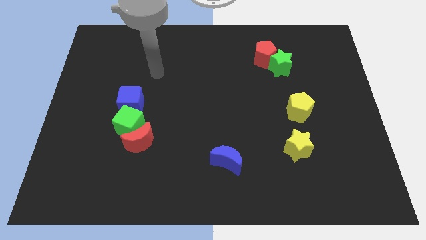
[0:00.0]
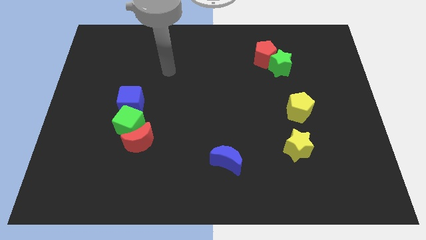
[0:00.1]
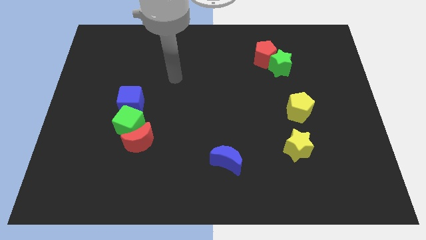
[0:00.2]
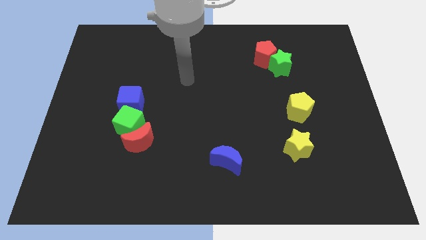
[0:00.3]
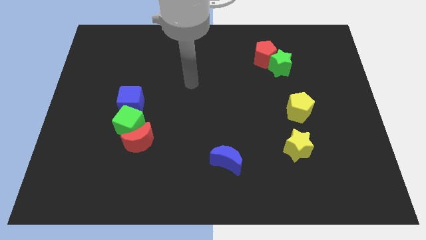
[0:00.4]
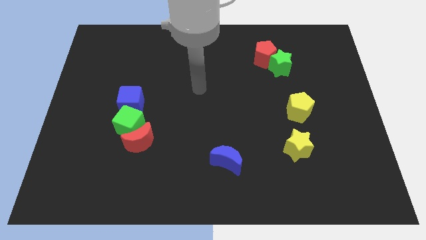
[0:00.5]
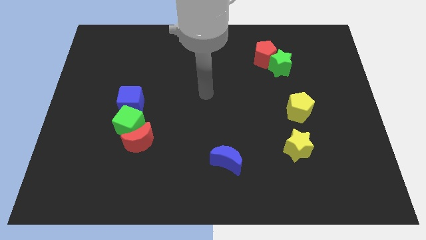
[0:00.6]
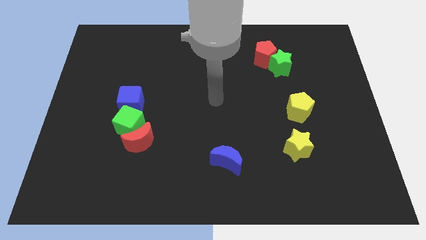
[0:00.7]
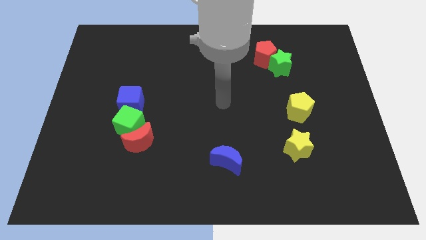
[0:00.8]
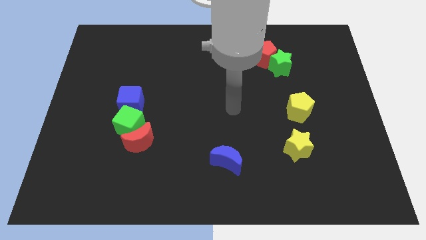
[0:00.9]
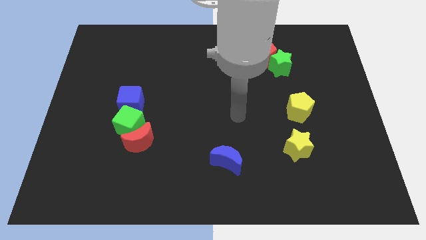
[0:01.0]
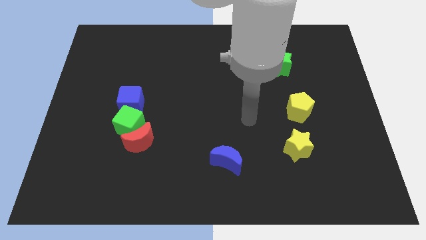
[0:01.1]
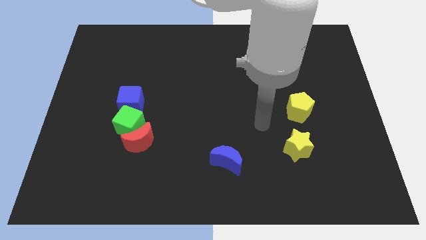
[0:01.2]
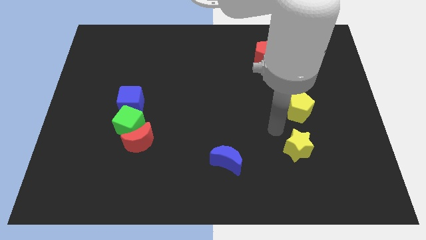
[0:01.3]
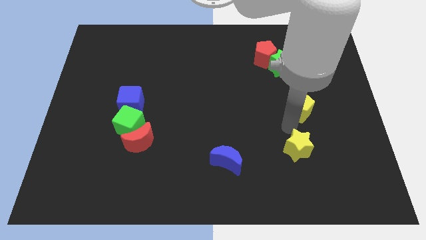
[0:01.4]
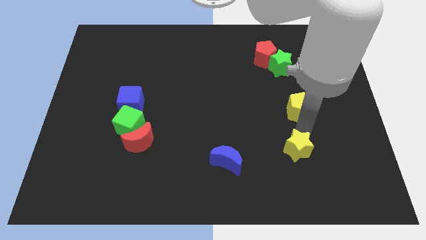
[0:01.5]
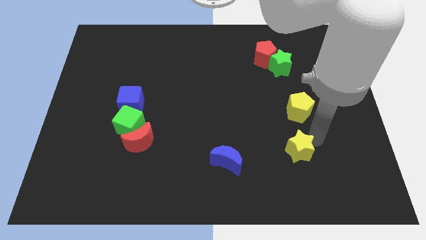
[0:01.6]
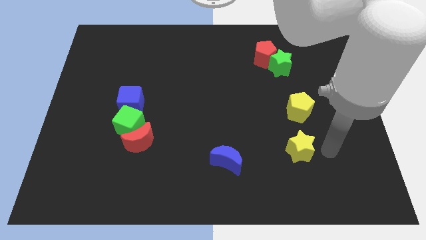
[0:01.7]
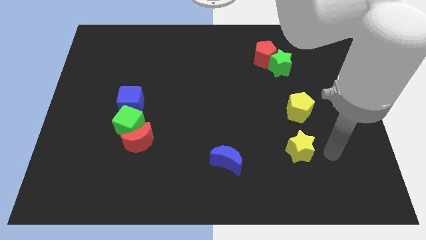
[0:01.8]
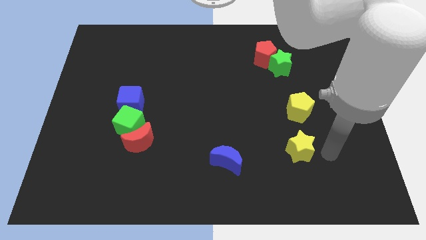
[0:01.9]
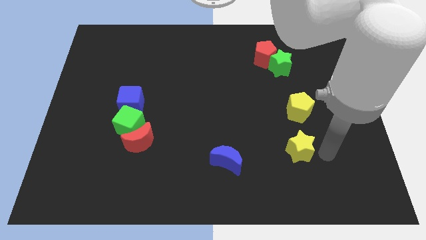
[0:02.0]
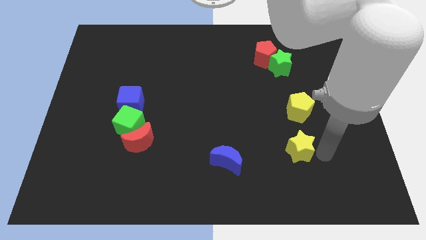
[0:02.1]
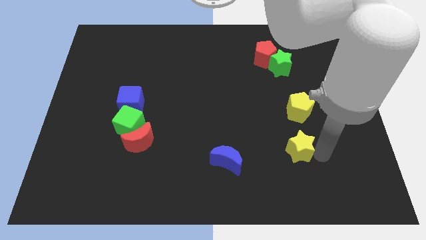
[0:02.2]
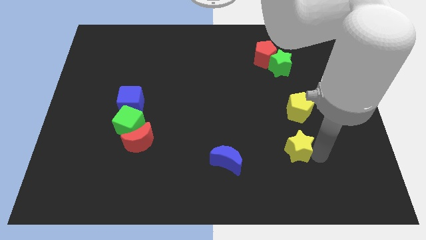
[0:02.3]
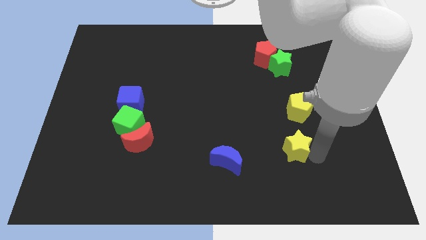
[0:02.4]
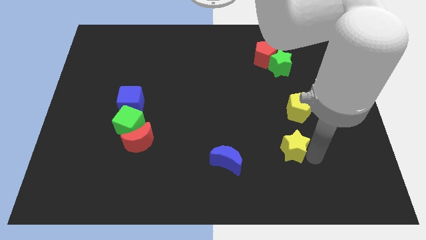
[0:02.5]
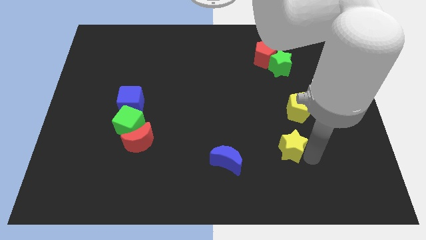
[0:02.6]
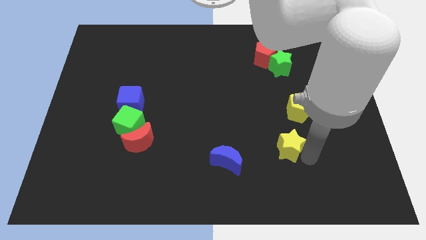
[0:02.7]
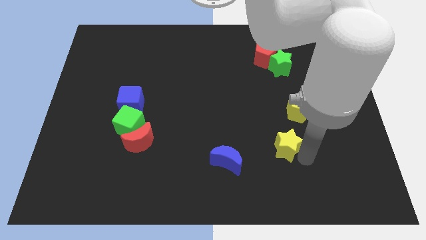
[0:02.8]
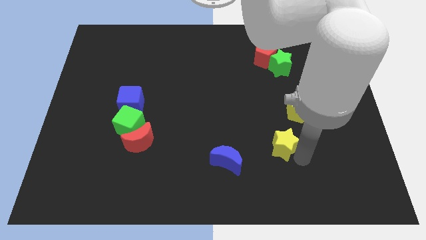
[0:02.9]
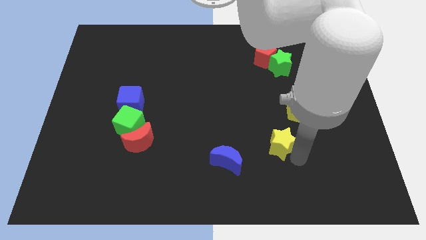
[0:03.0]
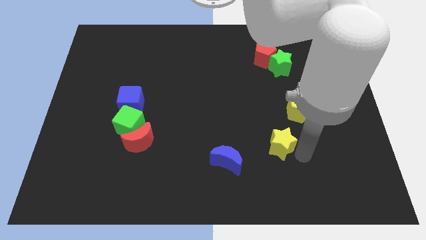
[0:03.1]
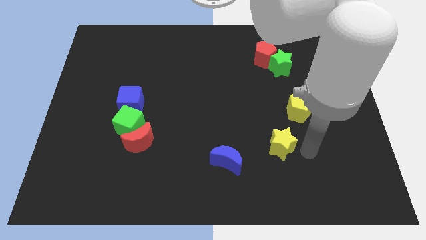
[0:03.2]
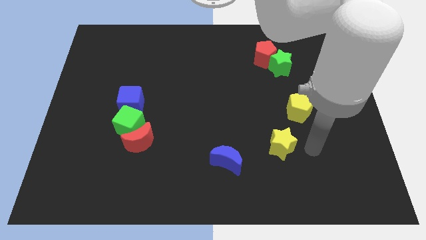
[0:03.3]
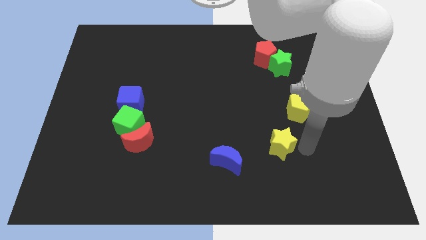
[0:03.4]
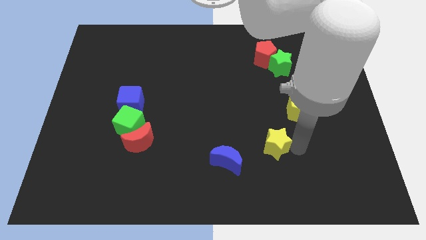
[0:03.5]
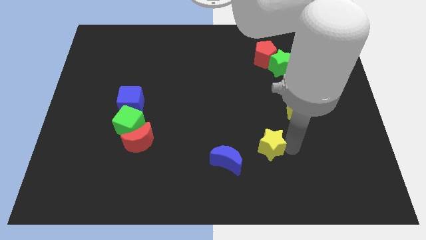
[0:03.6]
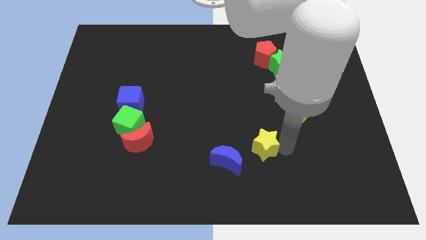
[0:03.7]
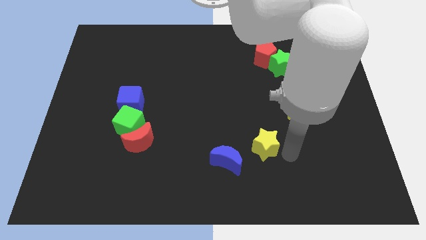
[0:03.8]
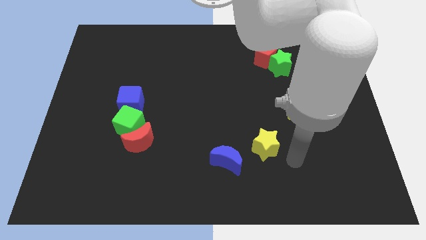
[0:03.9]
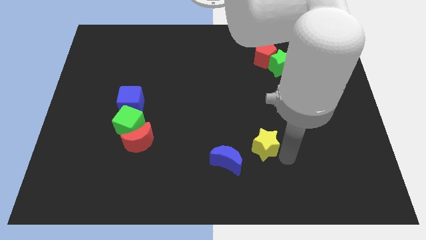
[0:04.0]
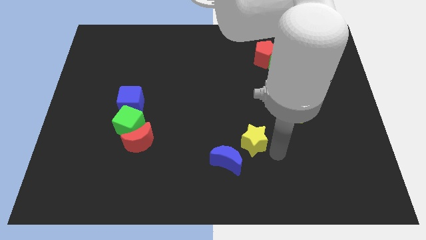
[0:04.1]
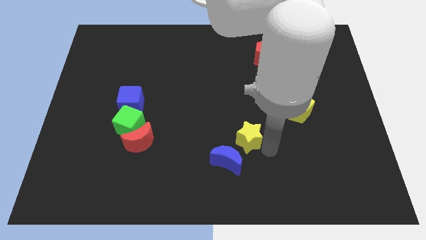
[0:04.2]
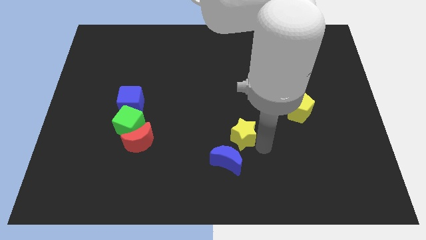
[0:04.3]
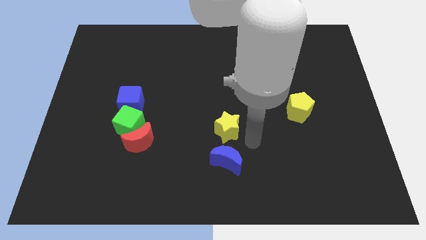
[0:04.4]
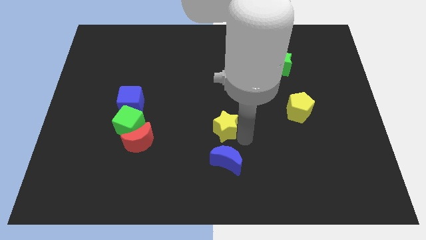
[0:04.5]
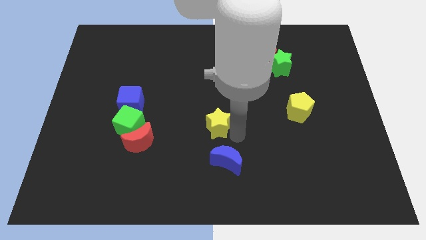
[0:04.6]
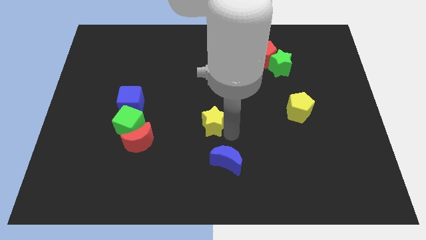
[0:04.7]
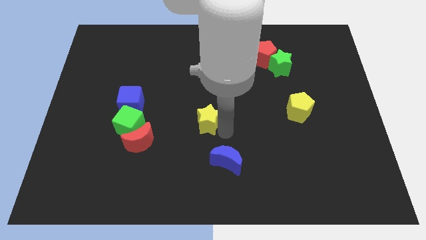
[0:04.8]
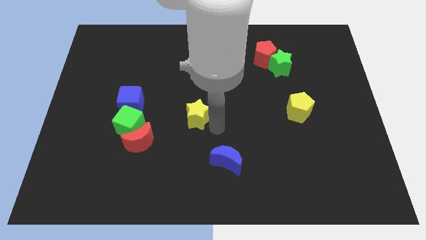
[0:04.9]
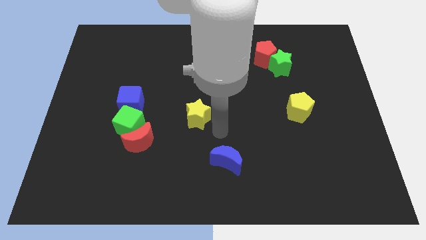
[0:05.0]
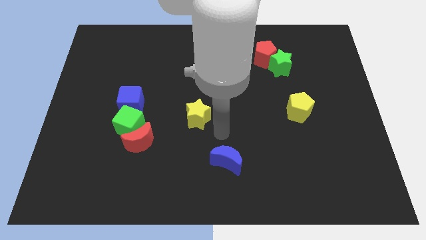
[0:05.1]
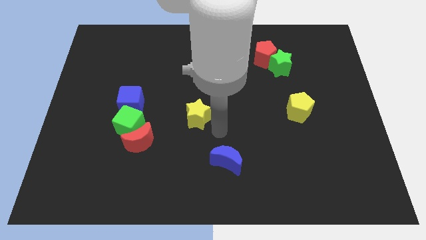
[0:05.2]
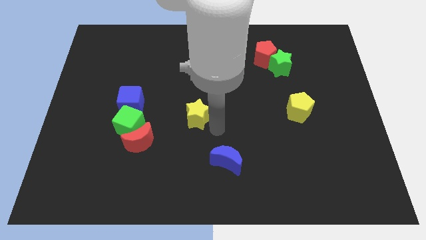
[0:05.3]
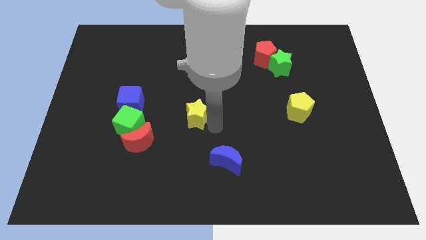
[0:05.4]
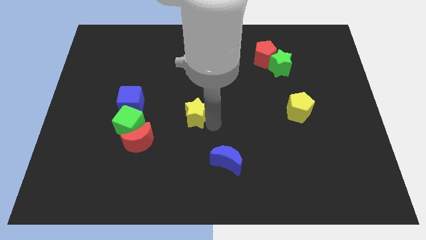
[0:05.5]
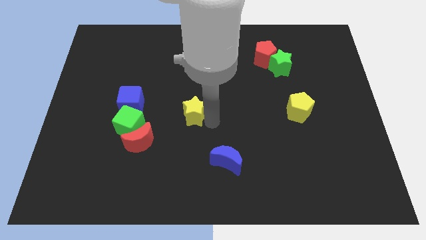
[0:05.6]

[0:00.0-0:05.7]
push the yellow star right of the blue cube

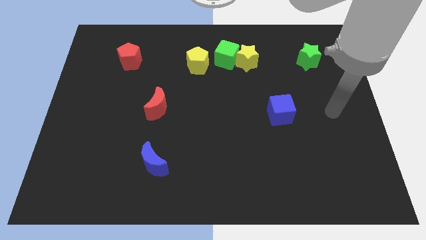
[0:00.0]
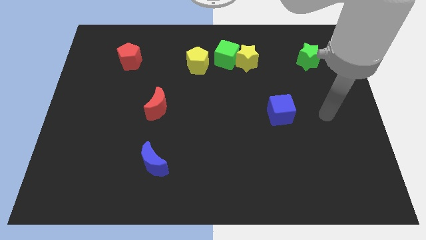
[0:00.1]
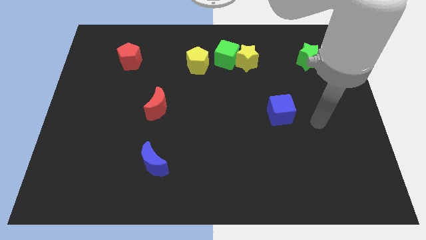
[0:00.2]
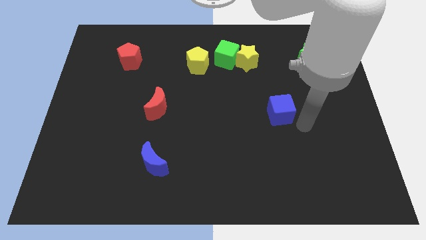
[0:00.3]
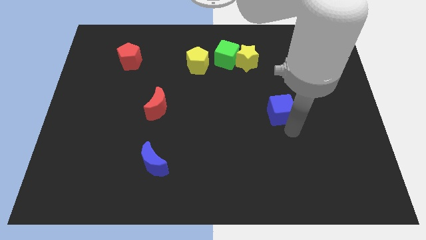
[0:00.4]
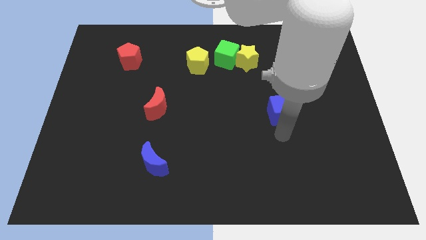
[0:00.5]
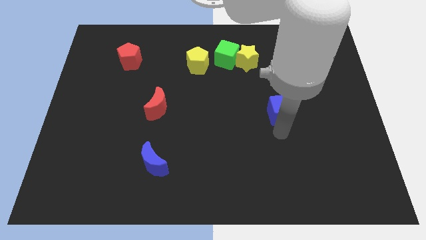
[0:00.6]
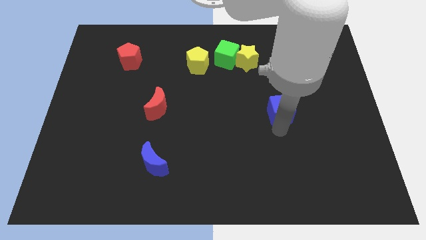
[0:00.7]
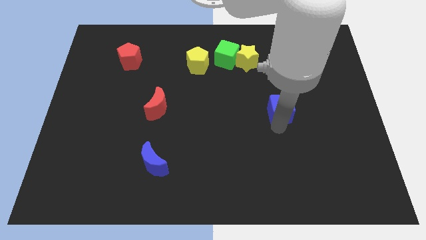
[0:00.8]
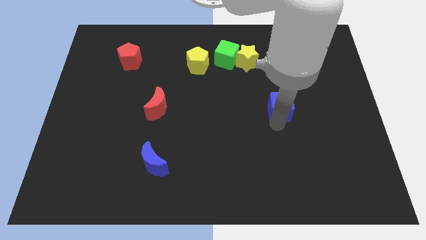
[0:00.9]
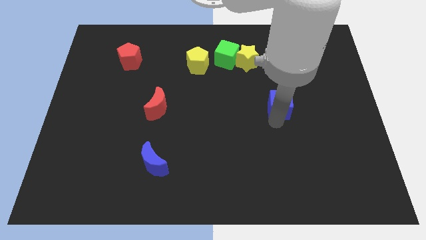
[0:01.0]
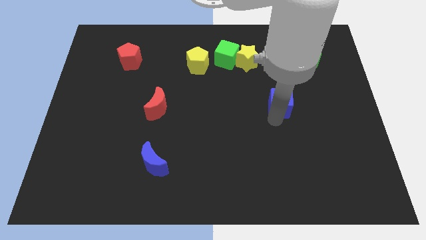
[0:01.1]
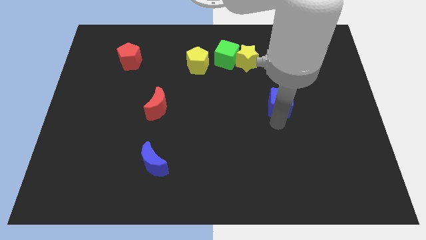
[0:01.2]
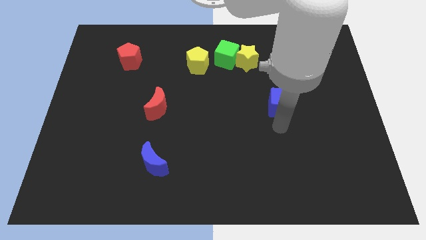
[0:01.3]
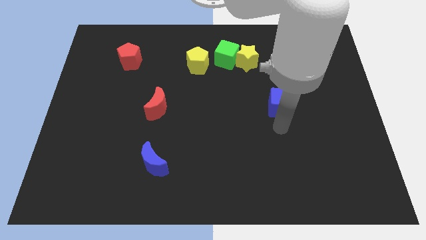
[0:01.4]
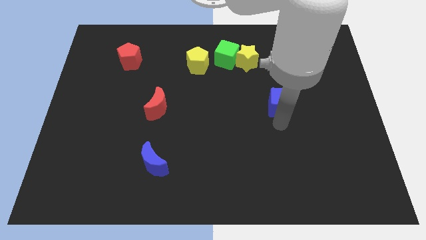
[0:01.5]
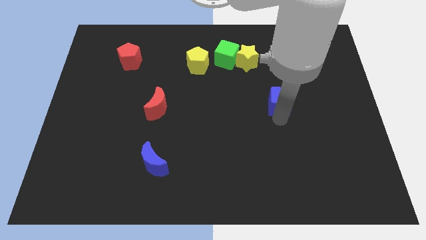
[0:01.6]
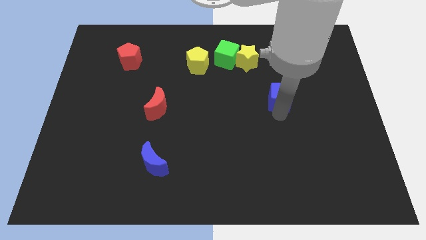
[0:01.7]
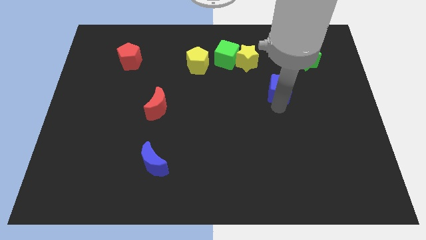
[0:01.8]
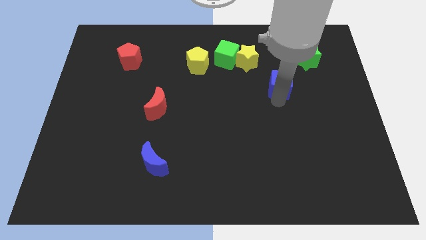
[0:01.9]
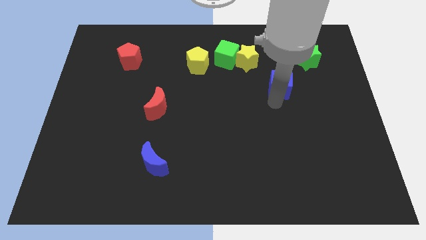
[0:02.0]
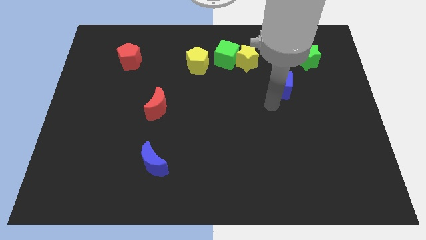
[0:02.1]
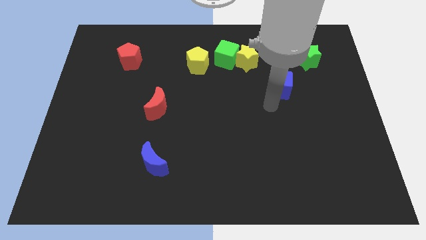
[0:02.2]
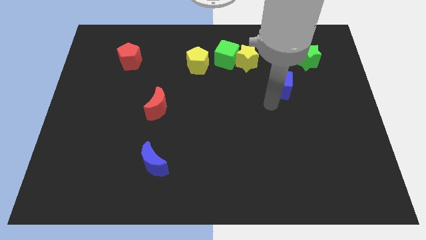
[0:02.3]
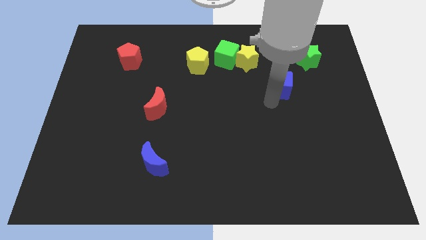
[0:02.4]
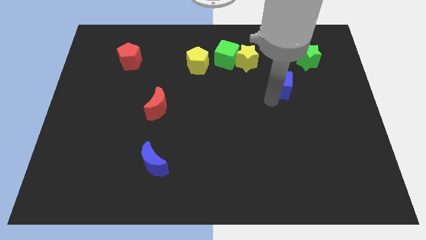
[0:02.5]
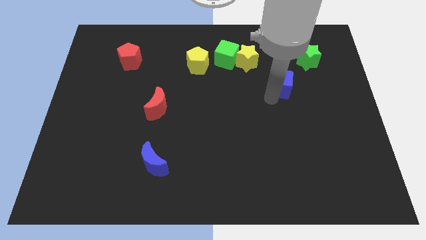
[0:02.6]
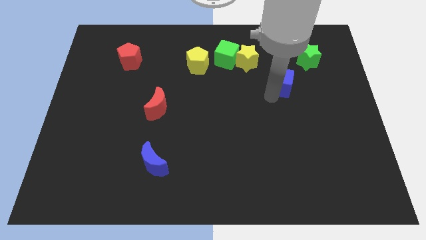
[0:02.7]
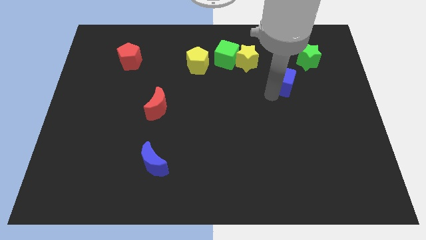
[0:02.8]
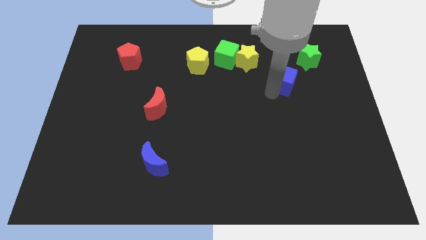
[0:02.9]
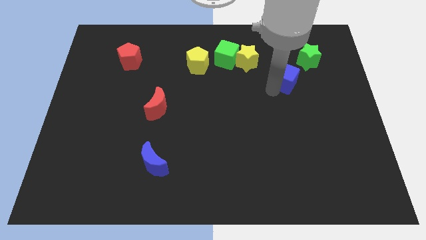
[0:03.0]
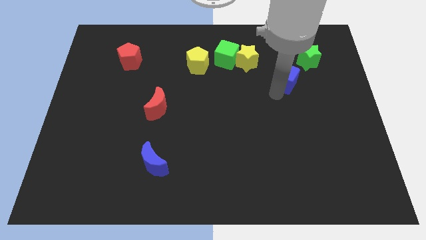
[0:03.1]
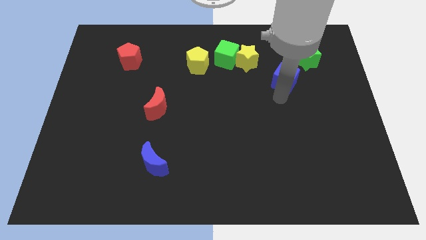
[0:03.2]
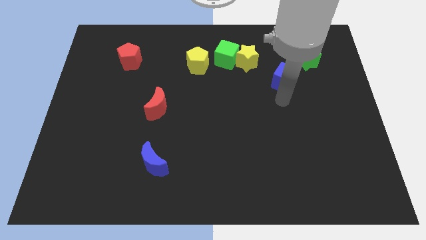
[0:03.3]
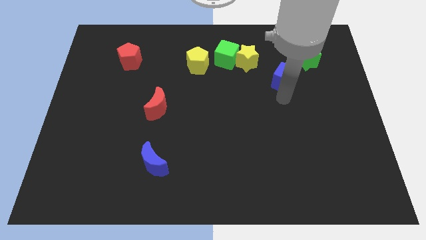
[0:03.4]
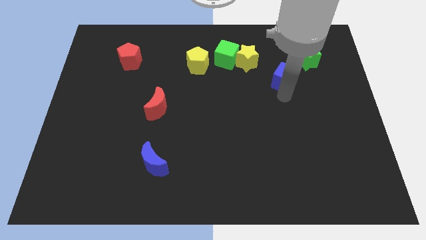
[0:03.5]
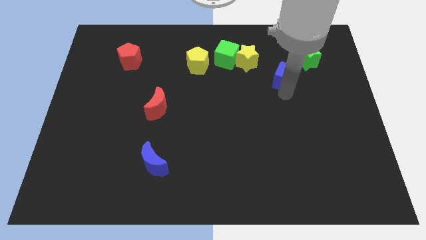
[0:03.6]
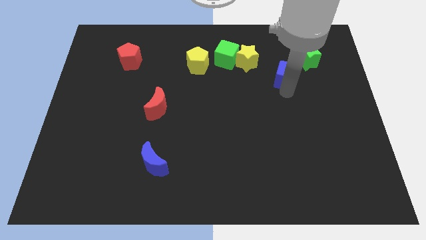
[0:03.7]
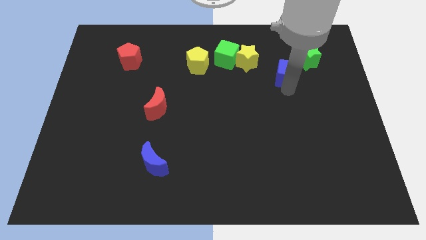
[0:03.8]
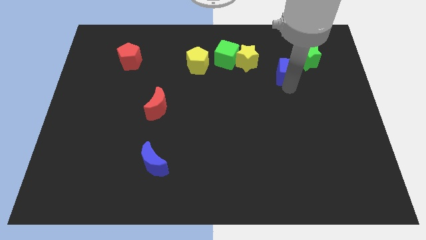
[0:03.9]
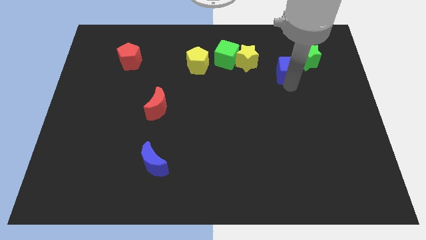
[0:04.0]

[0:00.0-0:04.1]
move the blue cube right of the yellow star
